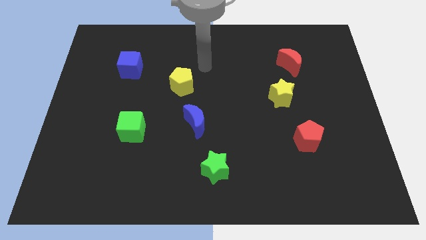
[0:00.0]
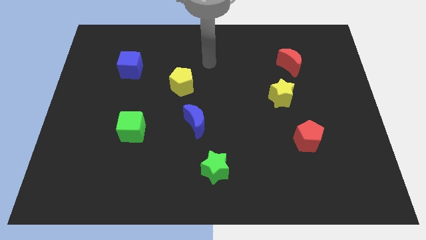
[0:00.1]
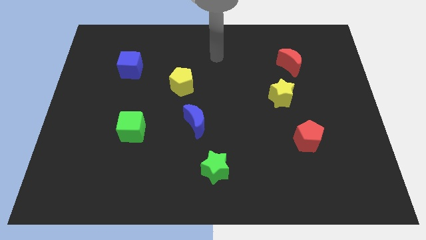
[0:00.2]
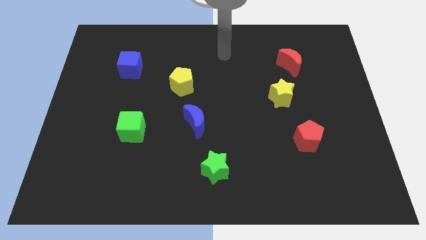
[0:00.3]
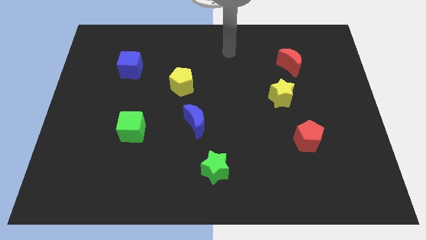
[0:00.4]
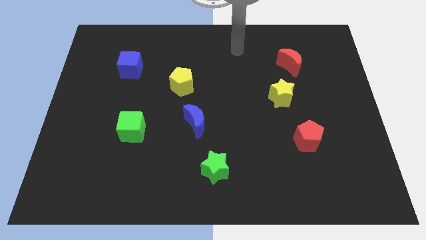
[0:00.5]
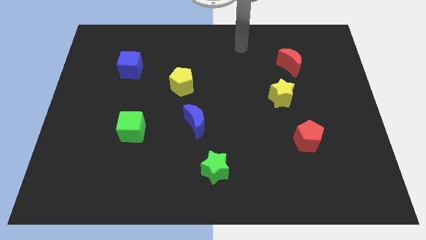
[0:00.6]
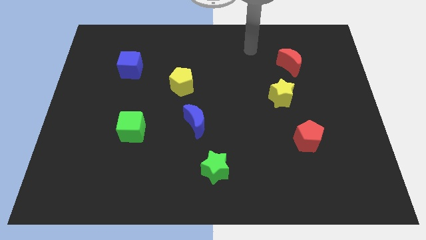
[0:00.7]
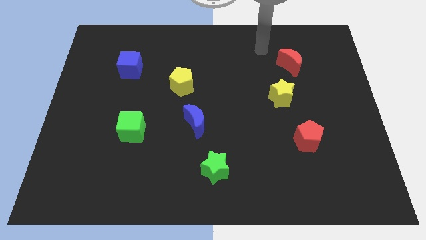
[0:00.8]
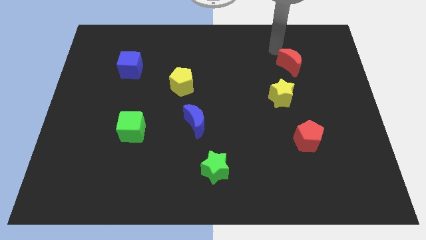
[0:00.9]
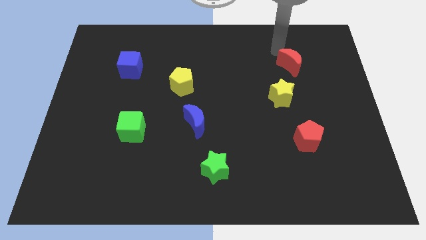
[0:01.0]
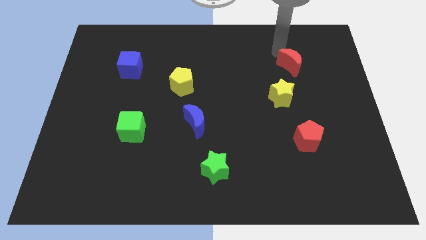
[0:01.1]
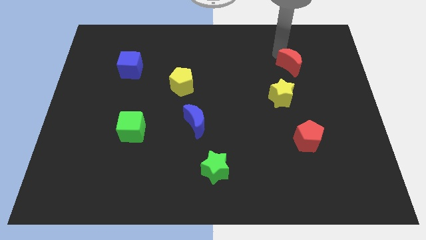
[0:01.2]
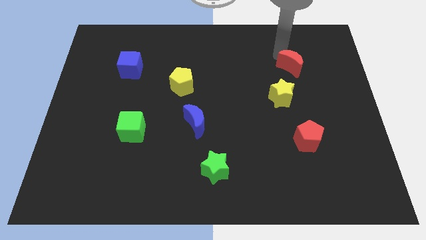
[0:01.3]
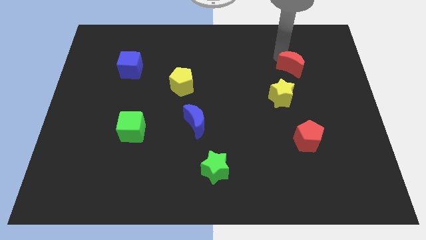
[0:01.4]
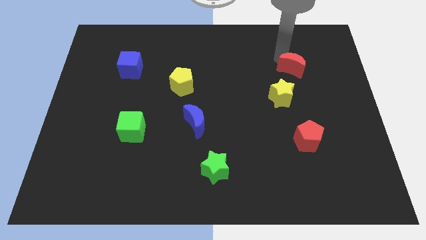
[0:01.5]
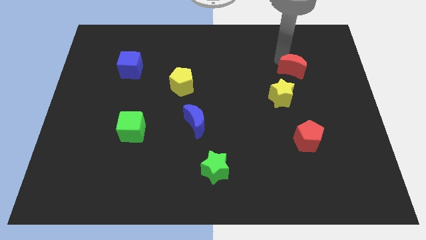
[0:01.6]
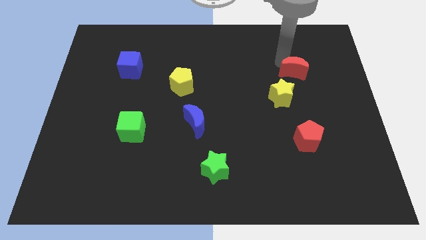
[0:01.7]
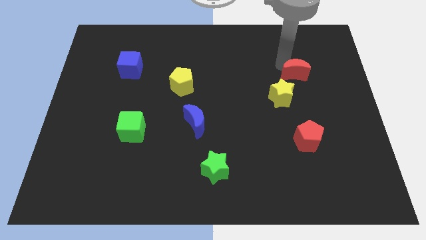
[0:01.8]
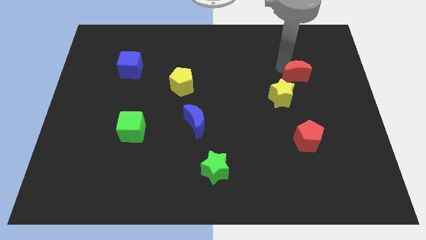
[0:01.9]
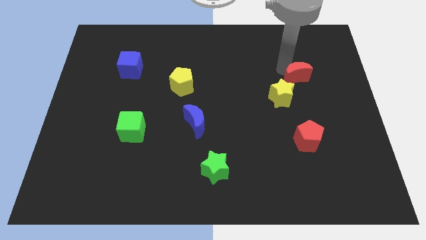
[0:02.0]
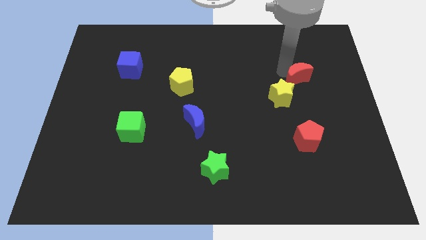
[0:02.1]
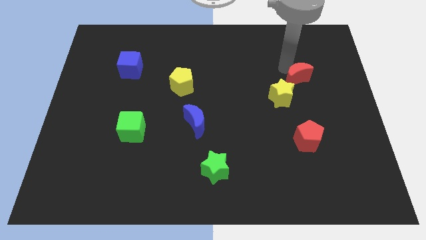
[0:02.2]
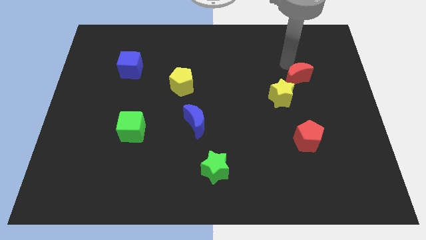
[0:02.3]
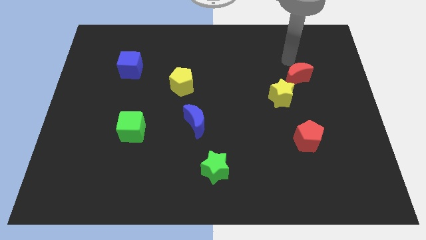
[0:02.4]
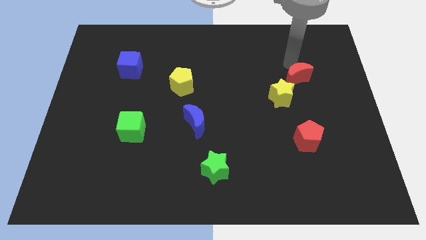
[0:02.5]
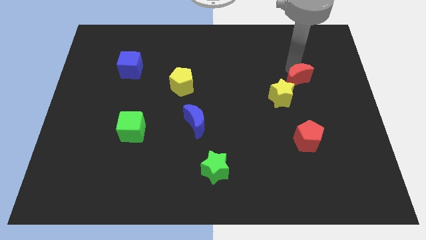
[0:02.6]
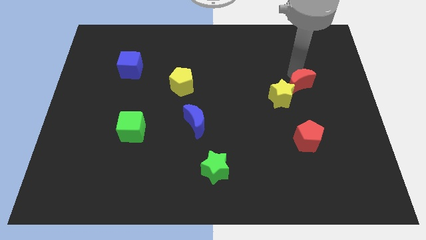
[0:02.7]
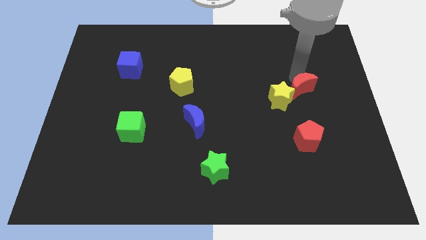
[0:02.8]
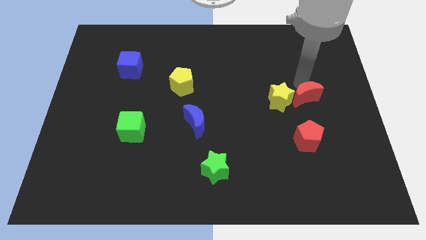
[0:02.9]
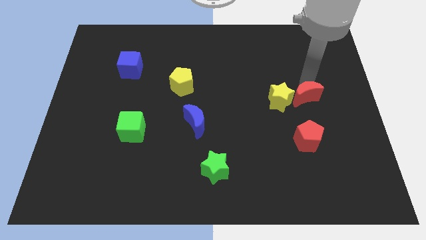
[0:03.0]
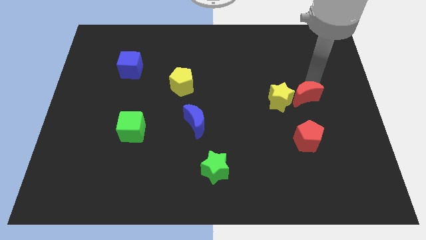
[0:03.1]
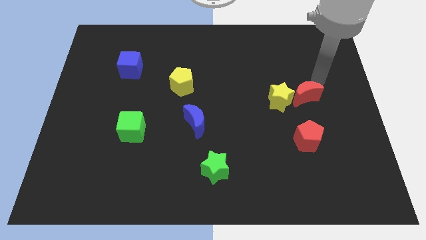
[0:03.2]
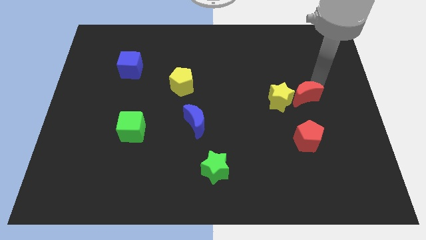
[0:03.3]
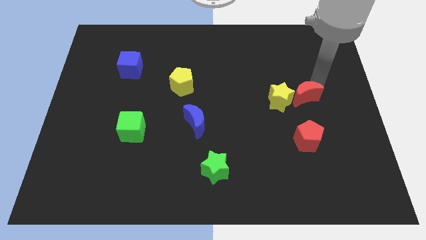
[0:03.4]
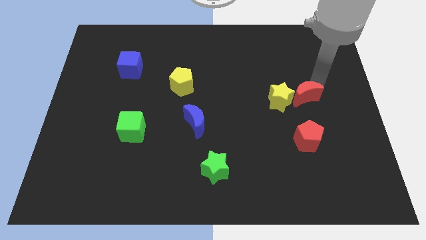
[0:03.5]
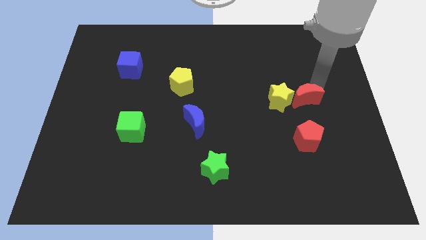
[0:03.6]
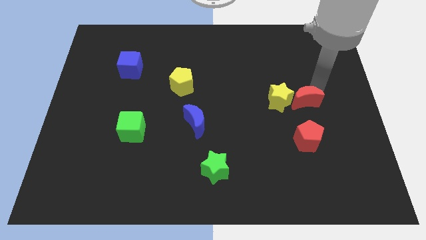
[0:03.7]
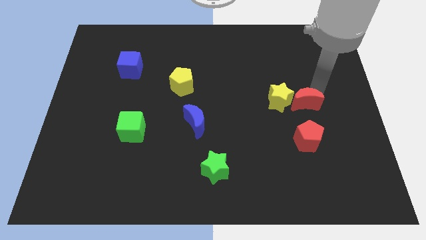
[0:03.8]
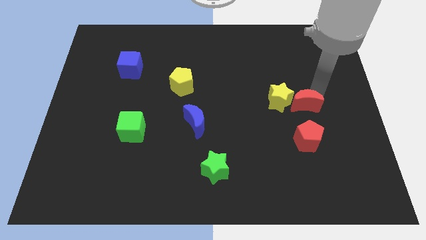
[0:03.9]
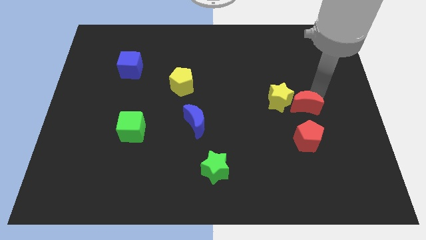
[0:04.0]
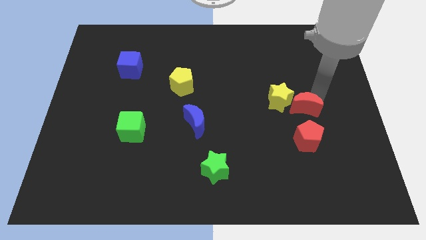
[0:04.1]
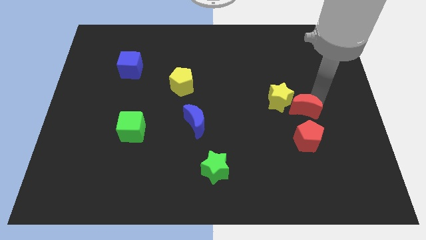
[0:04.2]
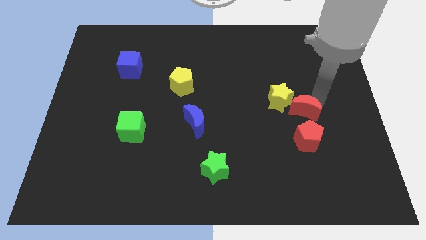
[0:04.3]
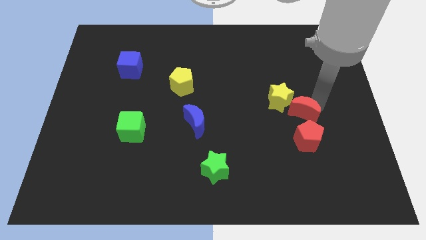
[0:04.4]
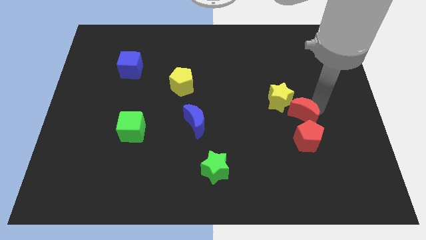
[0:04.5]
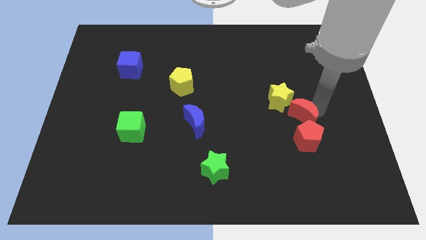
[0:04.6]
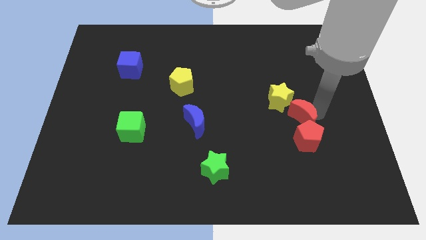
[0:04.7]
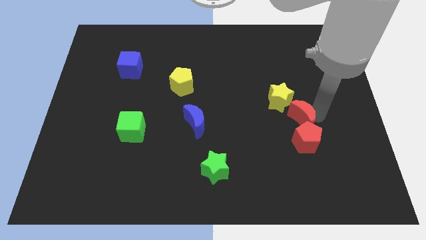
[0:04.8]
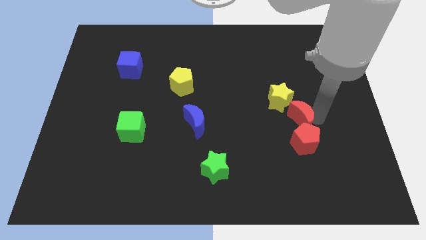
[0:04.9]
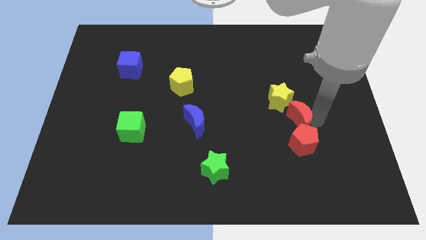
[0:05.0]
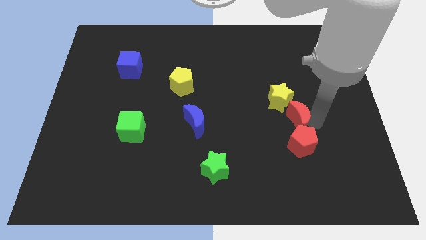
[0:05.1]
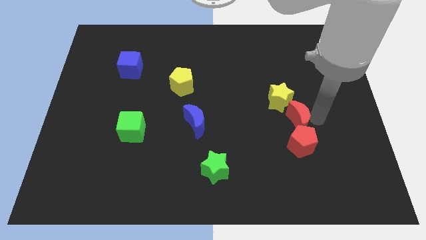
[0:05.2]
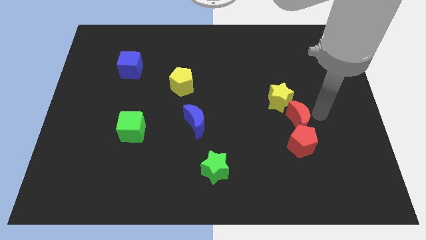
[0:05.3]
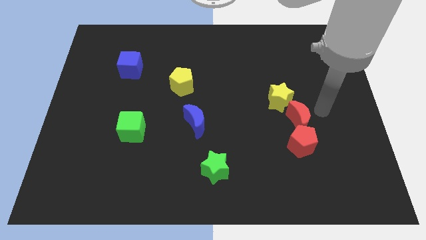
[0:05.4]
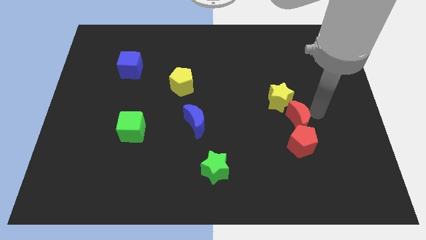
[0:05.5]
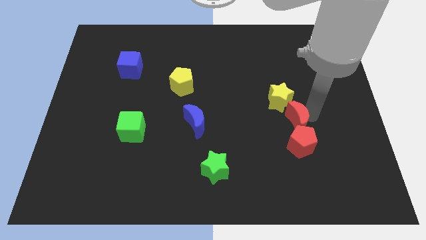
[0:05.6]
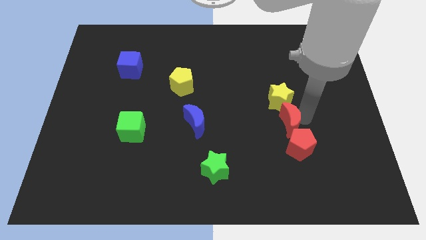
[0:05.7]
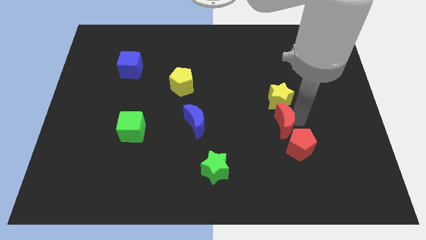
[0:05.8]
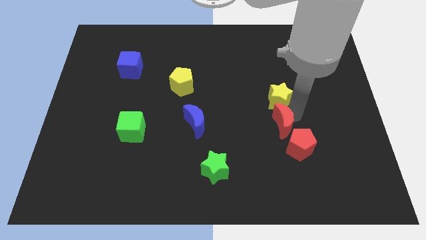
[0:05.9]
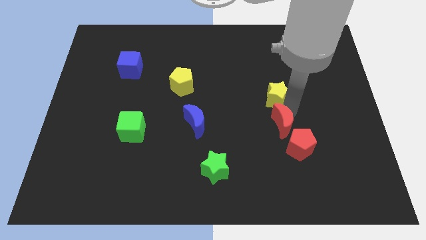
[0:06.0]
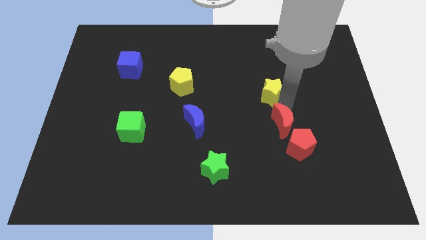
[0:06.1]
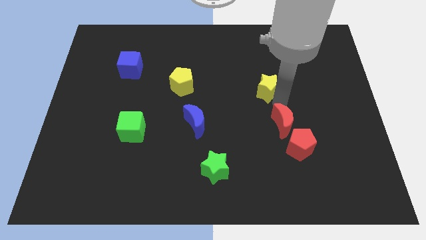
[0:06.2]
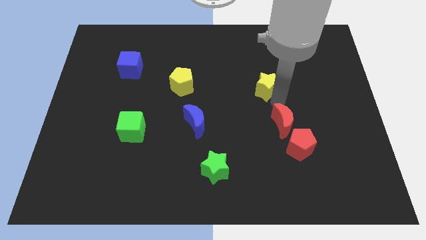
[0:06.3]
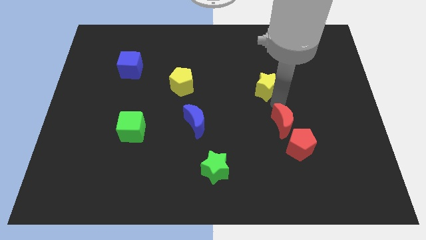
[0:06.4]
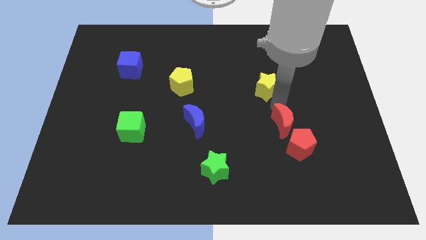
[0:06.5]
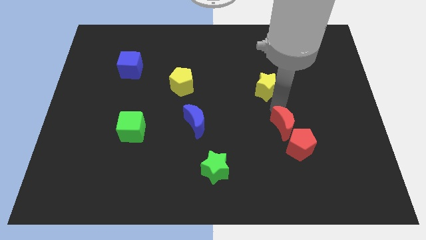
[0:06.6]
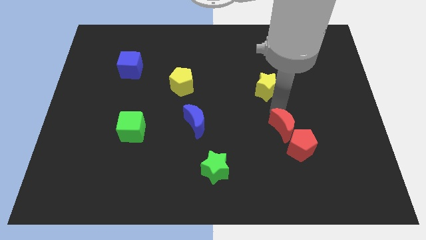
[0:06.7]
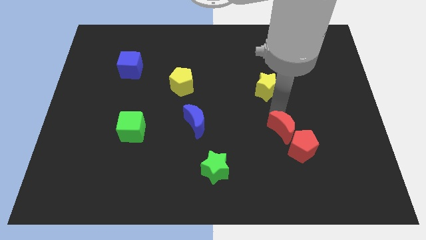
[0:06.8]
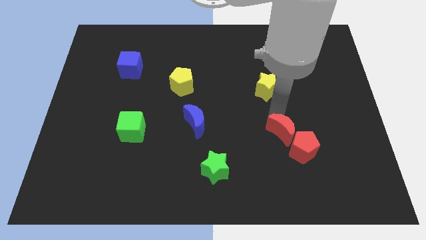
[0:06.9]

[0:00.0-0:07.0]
move the red moon downwards

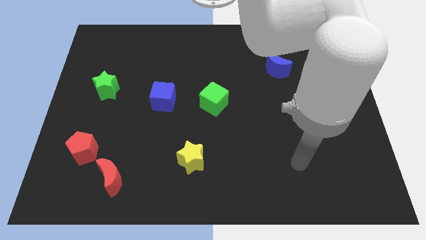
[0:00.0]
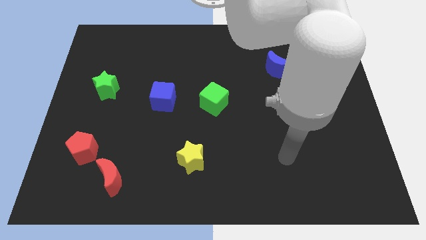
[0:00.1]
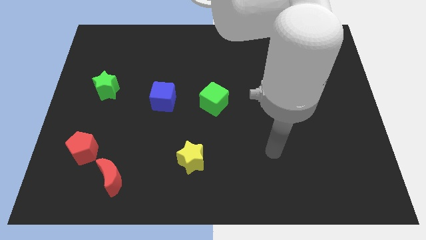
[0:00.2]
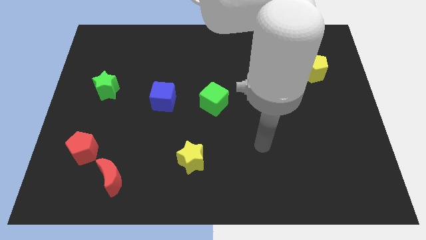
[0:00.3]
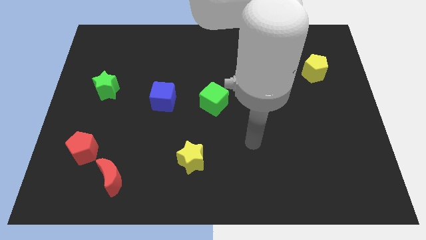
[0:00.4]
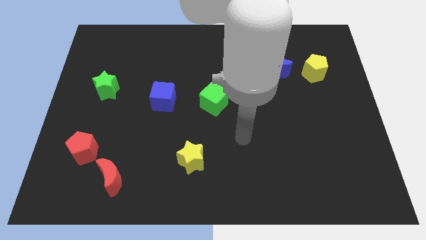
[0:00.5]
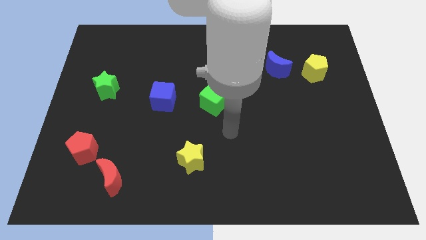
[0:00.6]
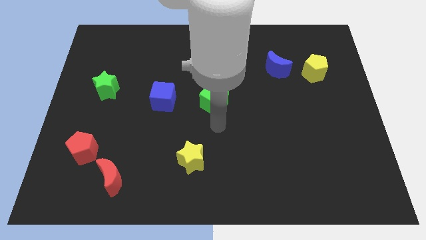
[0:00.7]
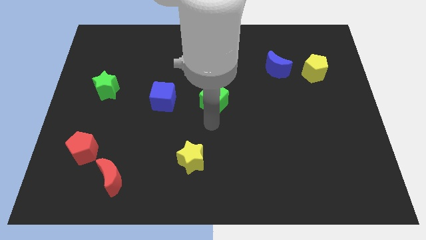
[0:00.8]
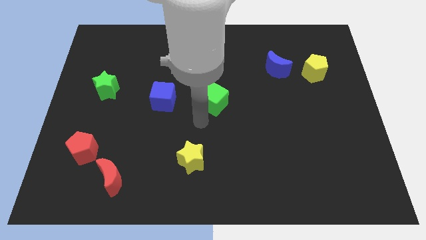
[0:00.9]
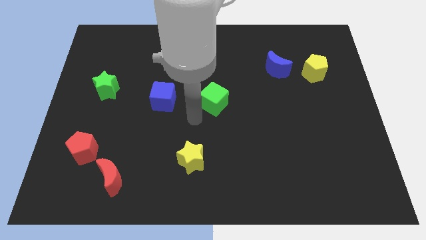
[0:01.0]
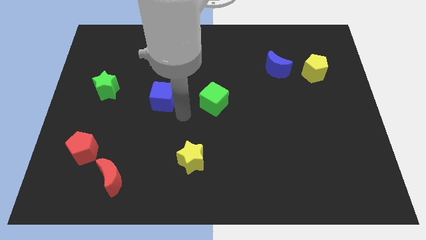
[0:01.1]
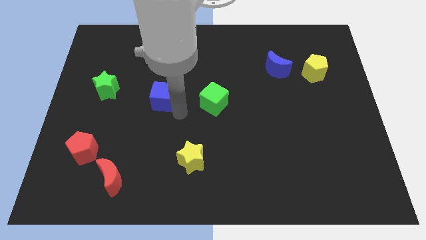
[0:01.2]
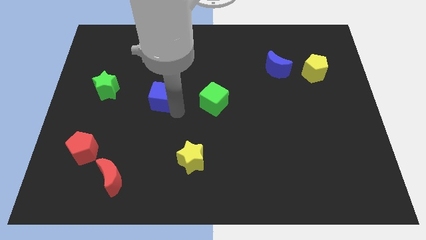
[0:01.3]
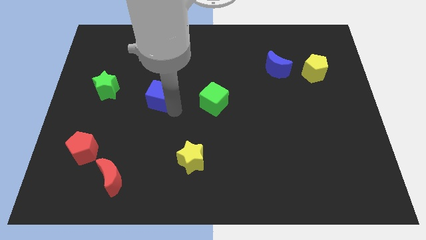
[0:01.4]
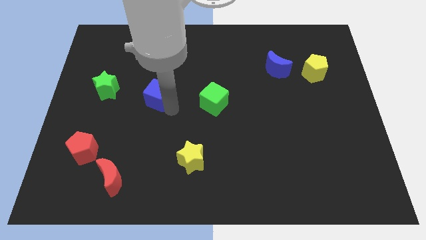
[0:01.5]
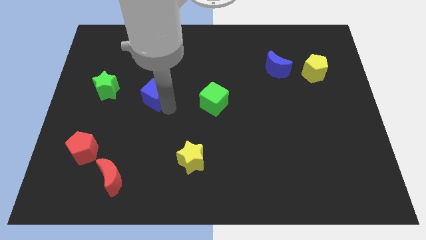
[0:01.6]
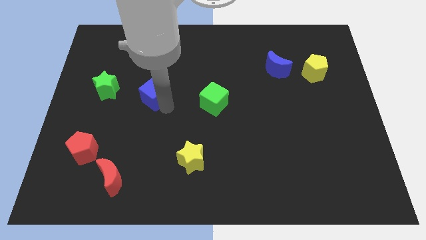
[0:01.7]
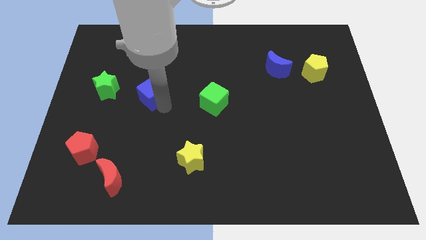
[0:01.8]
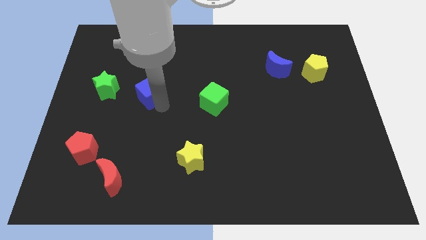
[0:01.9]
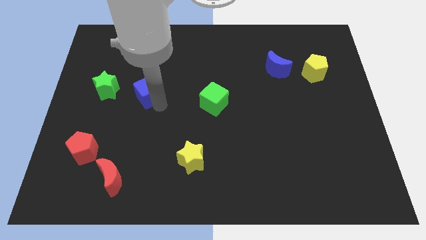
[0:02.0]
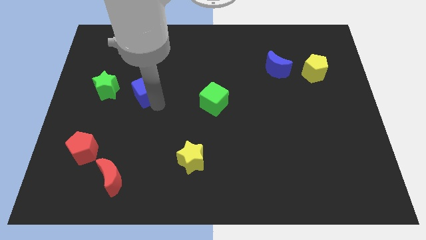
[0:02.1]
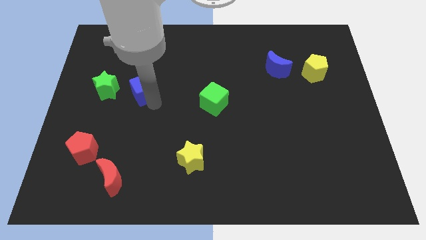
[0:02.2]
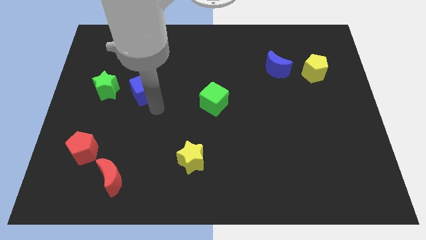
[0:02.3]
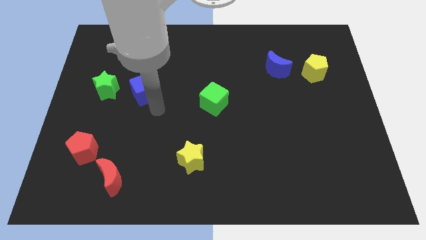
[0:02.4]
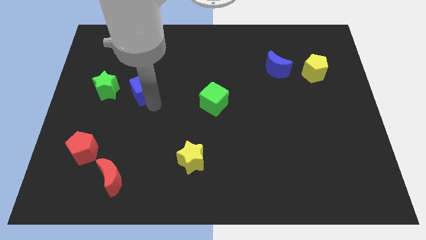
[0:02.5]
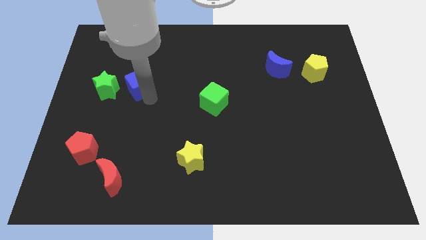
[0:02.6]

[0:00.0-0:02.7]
slightly slide the blue cube upwards and then to the left
